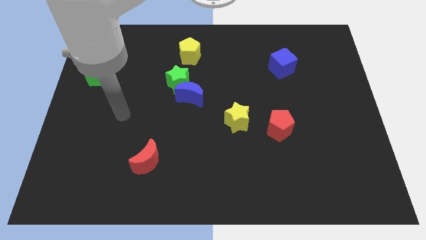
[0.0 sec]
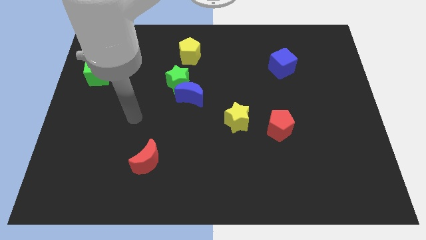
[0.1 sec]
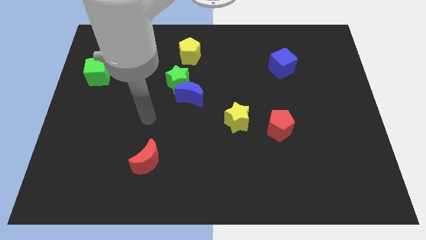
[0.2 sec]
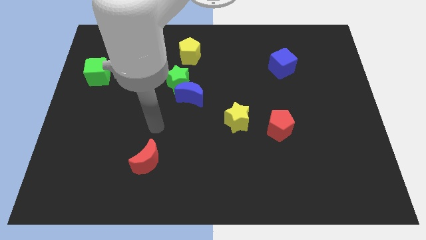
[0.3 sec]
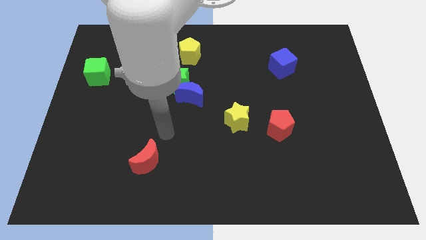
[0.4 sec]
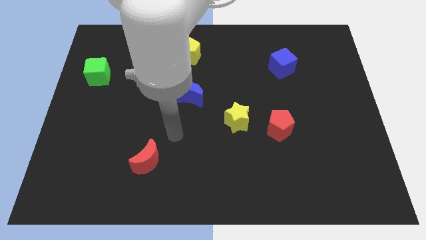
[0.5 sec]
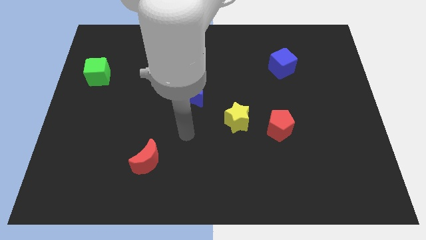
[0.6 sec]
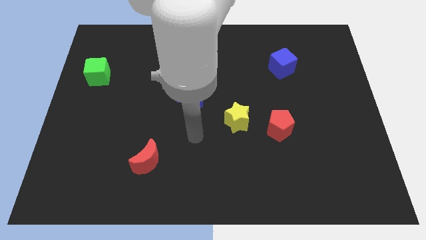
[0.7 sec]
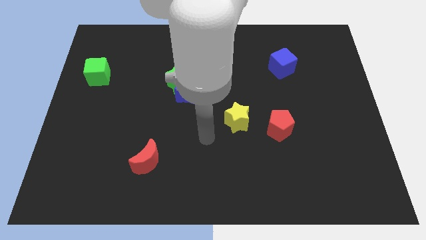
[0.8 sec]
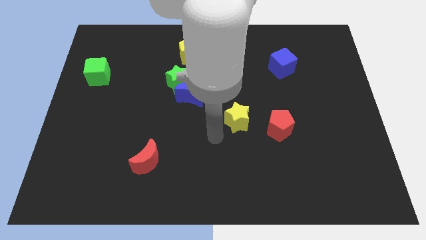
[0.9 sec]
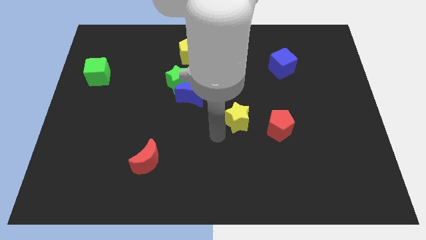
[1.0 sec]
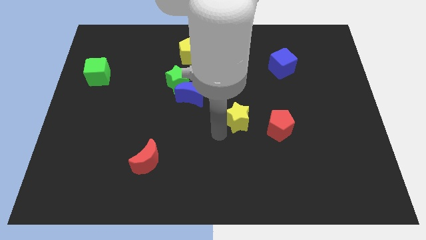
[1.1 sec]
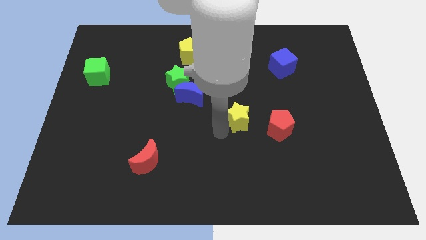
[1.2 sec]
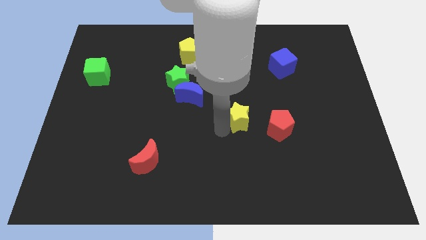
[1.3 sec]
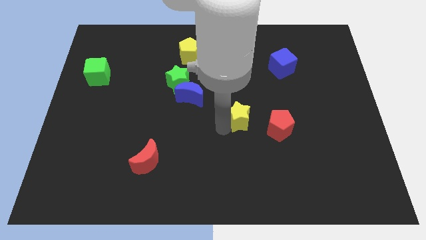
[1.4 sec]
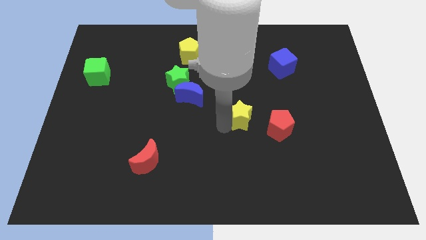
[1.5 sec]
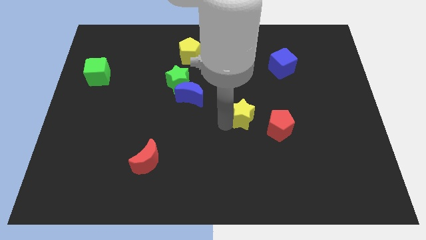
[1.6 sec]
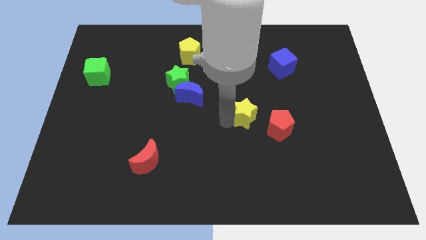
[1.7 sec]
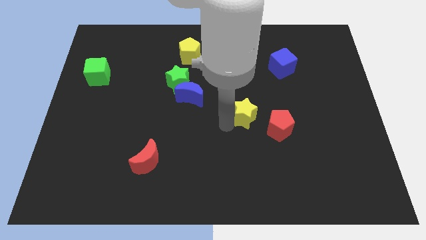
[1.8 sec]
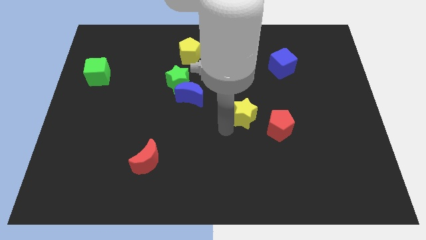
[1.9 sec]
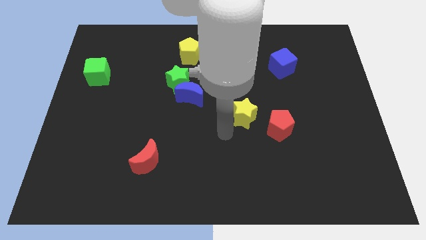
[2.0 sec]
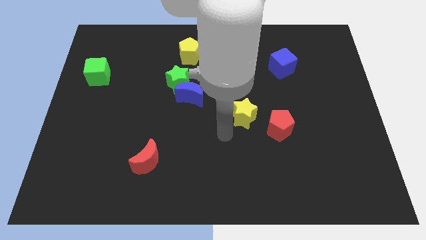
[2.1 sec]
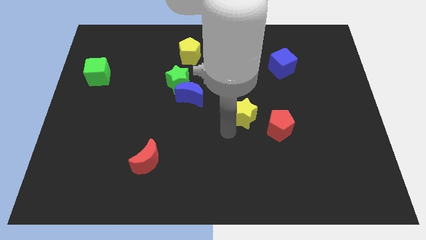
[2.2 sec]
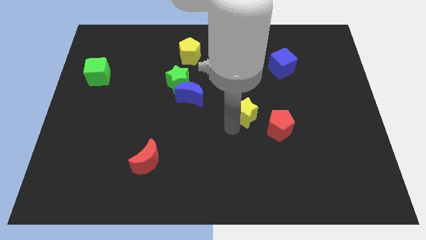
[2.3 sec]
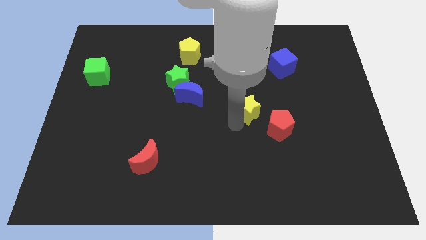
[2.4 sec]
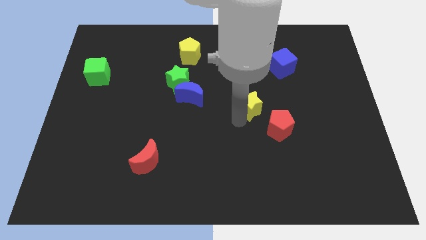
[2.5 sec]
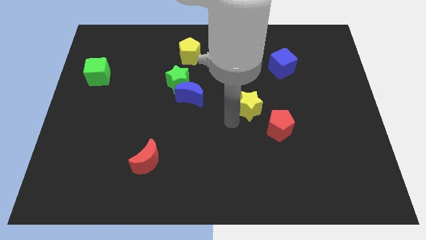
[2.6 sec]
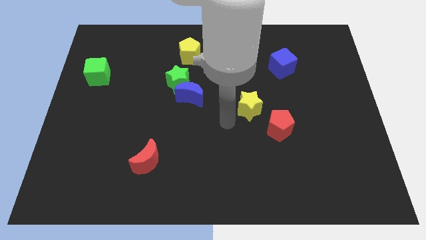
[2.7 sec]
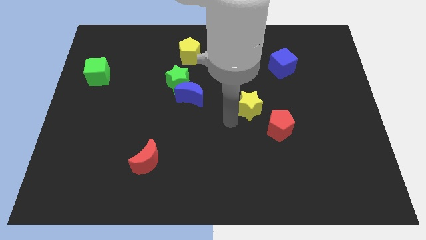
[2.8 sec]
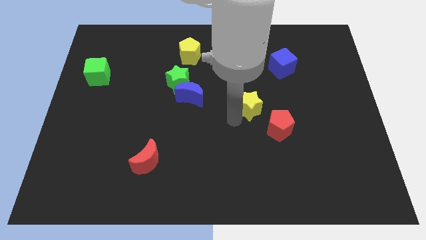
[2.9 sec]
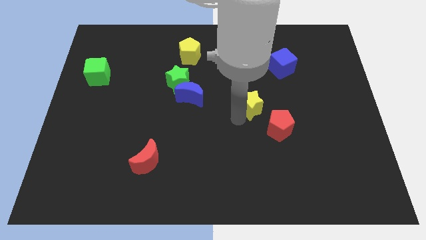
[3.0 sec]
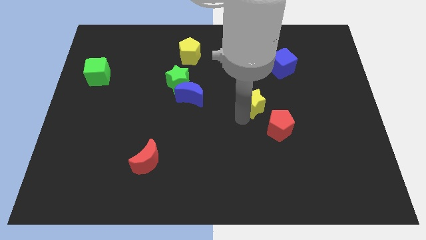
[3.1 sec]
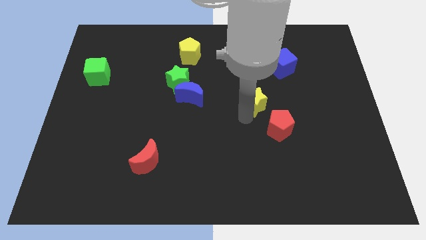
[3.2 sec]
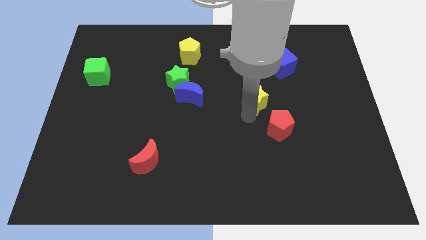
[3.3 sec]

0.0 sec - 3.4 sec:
push the yellow star up and then to the right a little bit

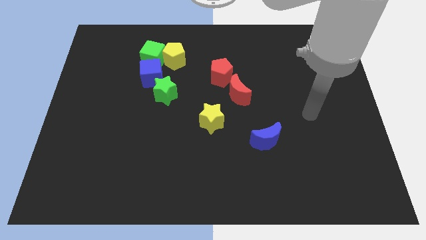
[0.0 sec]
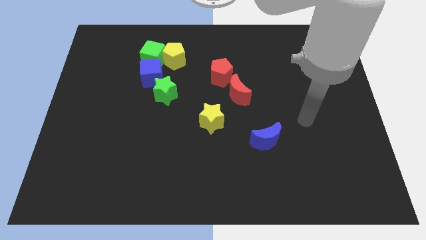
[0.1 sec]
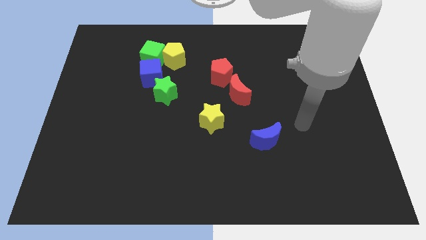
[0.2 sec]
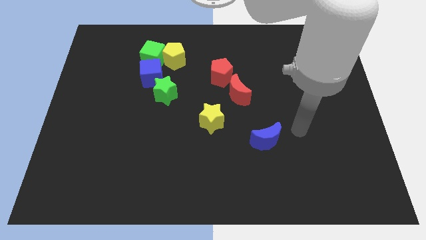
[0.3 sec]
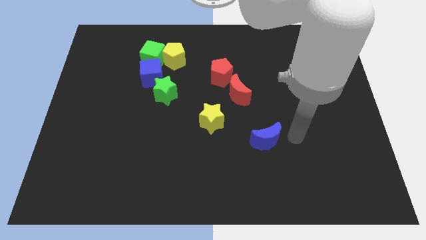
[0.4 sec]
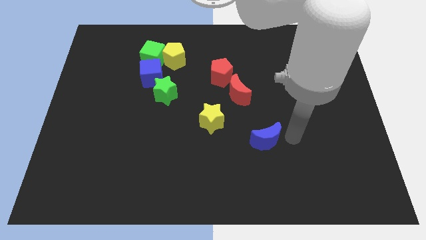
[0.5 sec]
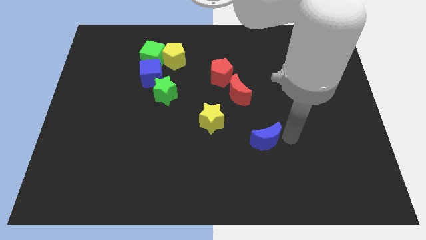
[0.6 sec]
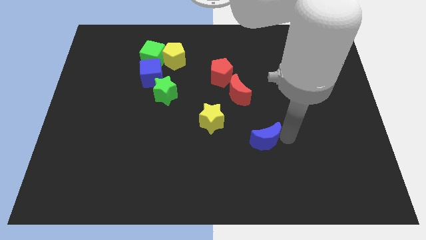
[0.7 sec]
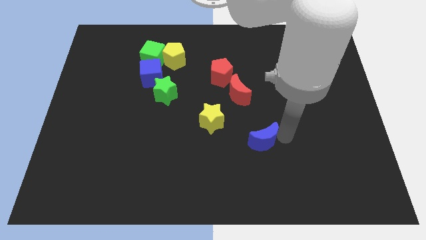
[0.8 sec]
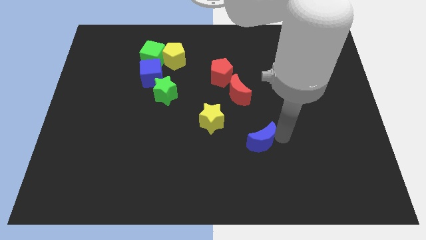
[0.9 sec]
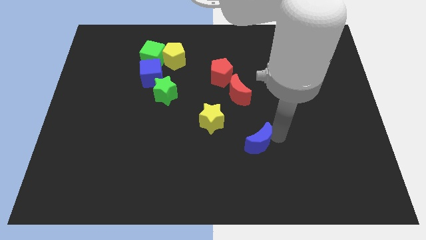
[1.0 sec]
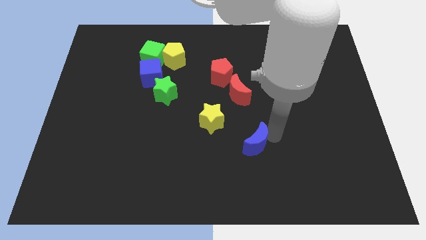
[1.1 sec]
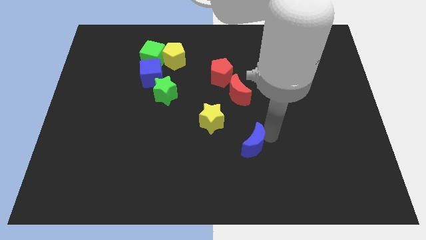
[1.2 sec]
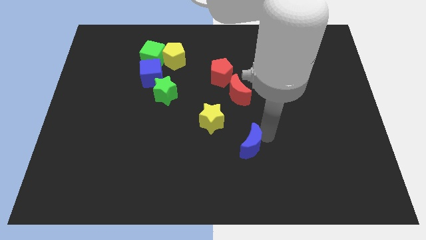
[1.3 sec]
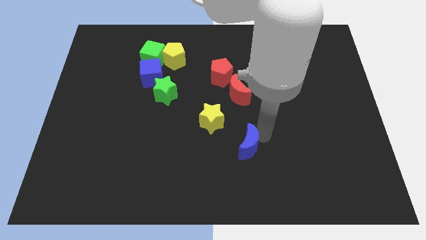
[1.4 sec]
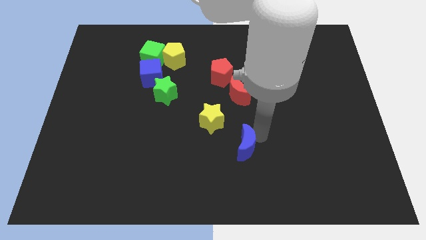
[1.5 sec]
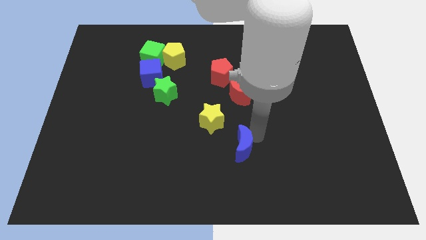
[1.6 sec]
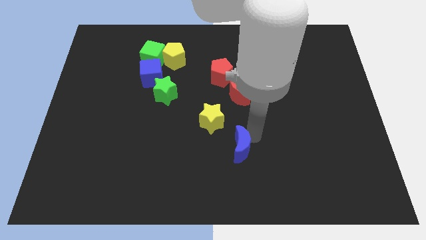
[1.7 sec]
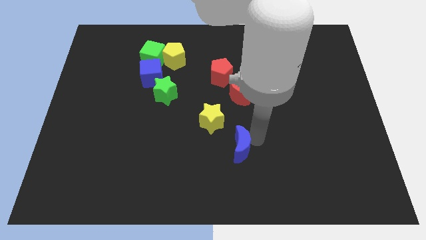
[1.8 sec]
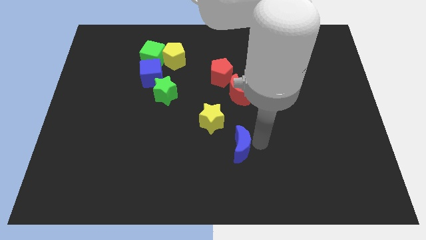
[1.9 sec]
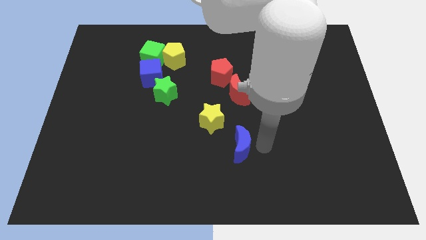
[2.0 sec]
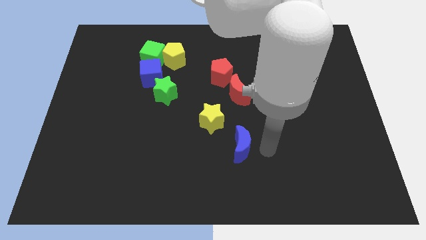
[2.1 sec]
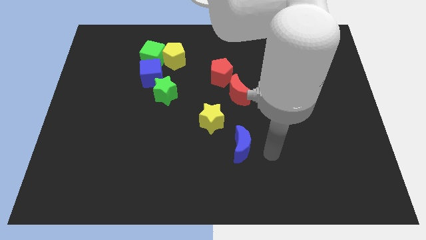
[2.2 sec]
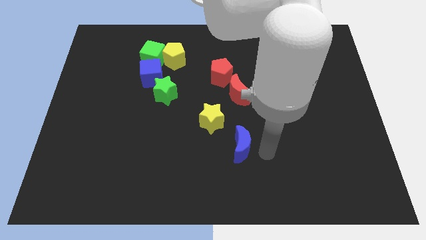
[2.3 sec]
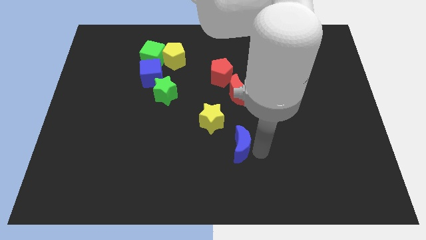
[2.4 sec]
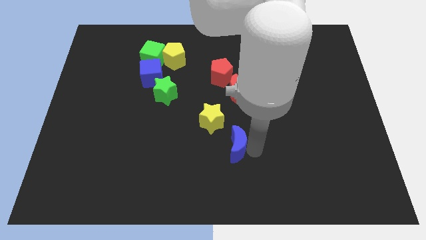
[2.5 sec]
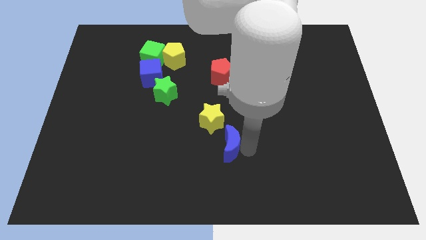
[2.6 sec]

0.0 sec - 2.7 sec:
push the blue moon left a little bit

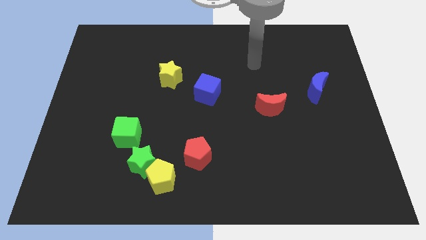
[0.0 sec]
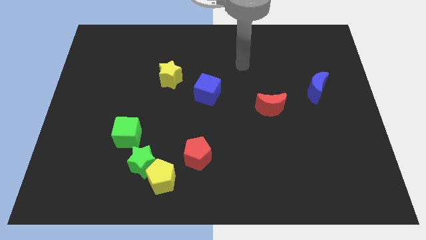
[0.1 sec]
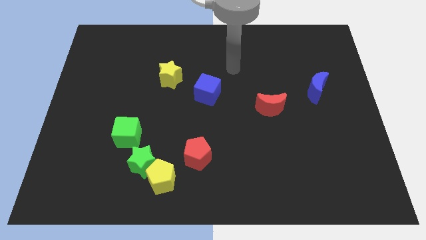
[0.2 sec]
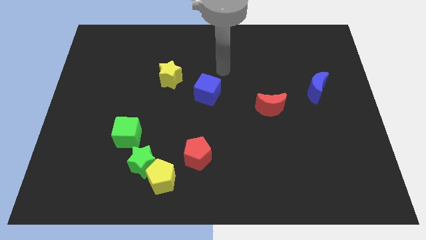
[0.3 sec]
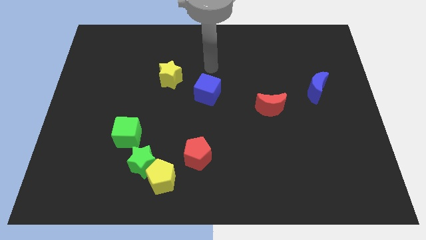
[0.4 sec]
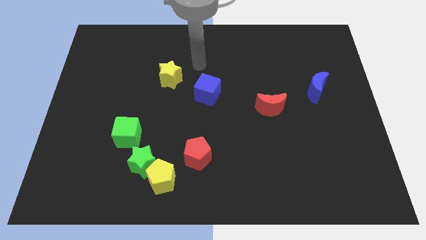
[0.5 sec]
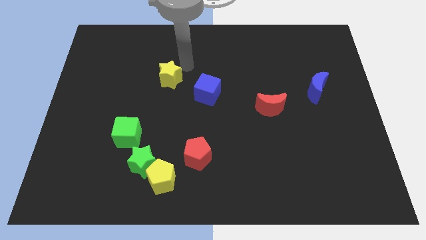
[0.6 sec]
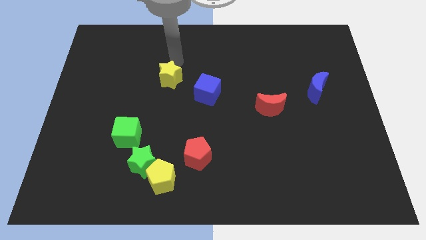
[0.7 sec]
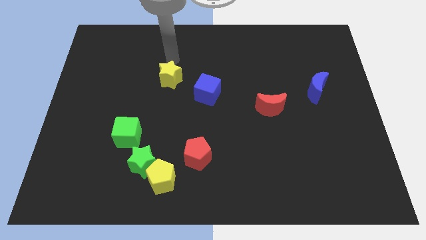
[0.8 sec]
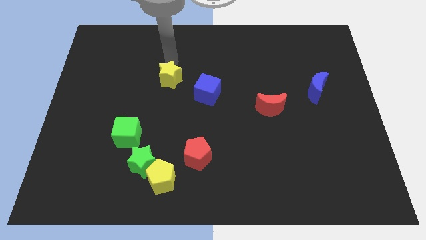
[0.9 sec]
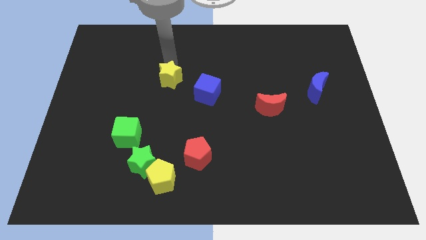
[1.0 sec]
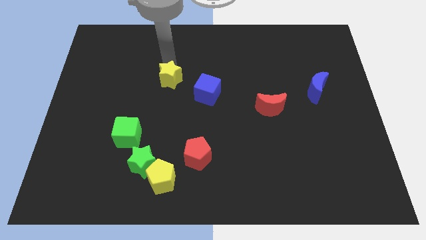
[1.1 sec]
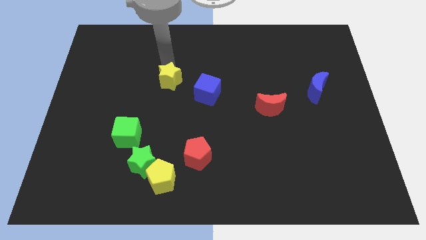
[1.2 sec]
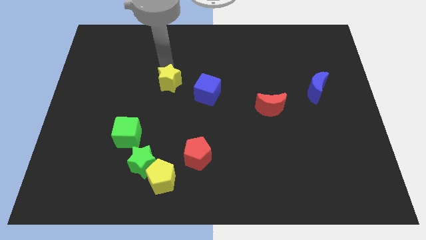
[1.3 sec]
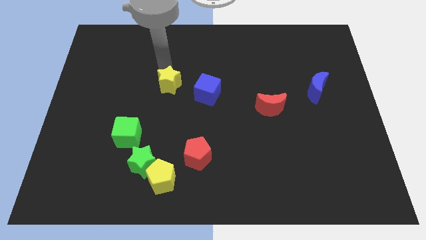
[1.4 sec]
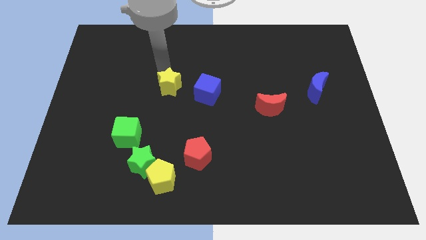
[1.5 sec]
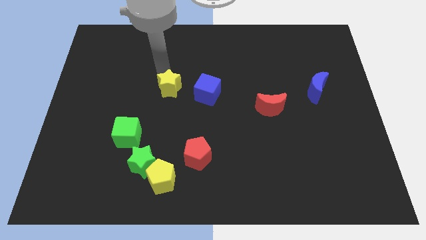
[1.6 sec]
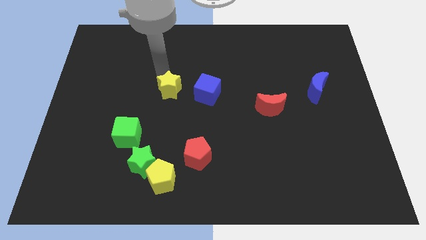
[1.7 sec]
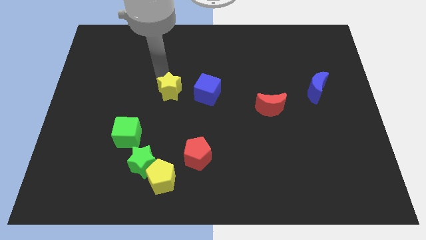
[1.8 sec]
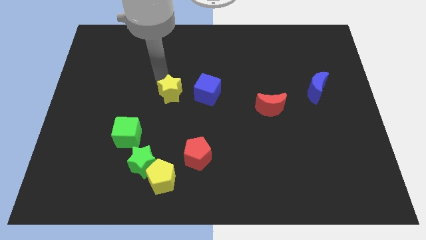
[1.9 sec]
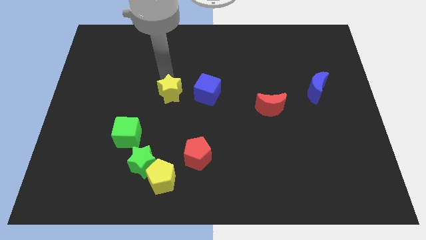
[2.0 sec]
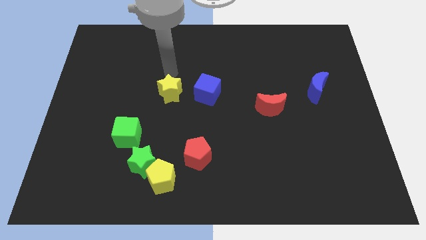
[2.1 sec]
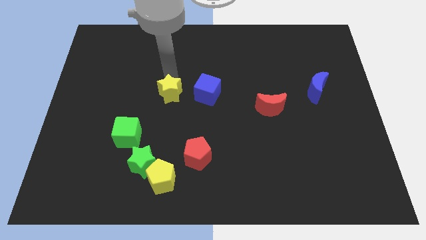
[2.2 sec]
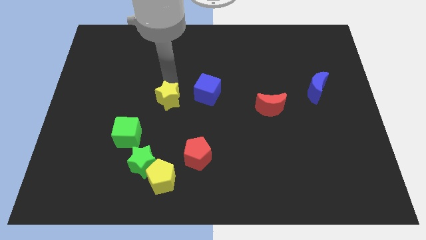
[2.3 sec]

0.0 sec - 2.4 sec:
push the yellow star a bit downwards
